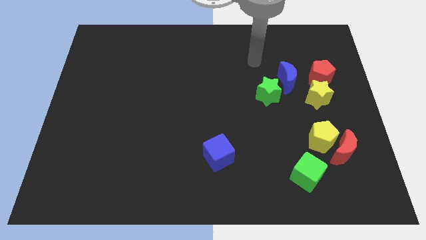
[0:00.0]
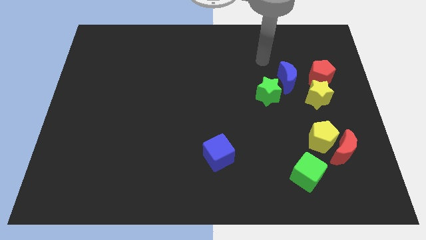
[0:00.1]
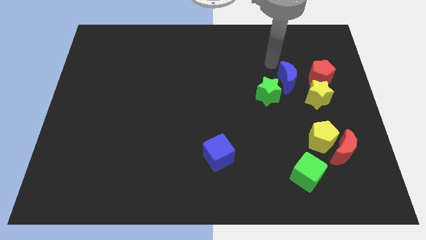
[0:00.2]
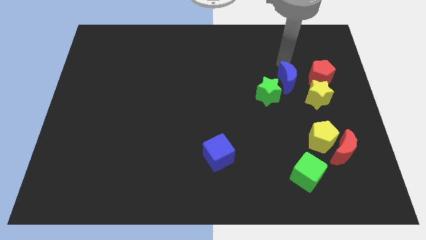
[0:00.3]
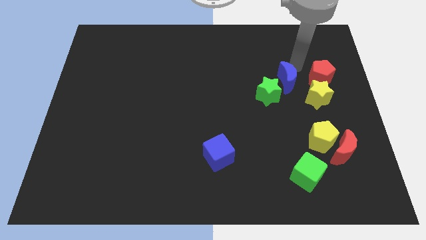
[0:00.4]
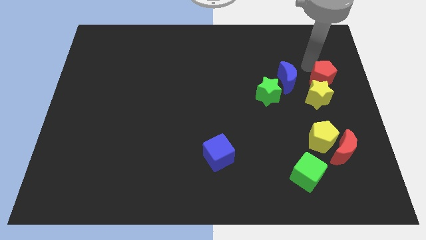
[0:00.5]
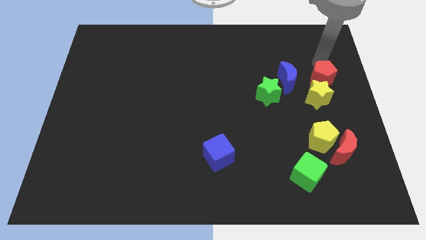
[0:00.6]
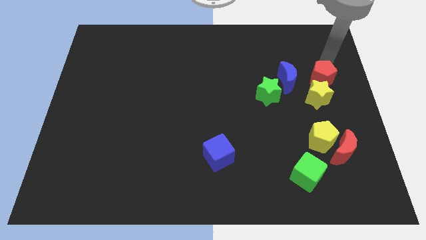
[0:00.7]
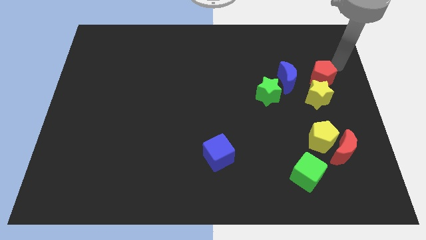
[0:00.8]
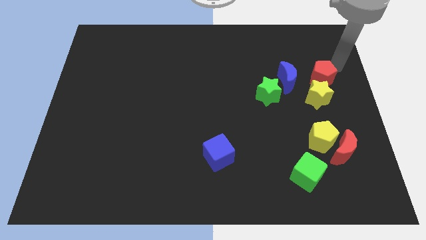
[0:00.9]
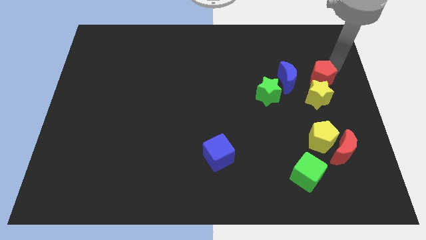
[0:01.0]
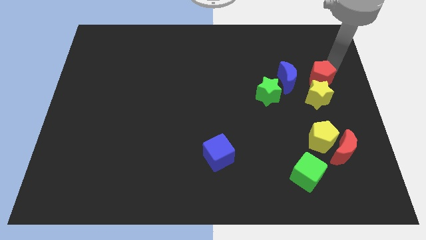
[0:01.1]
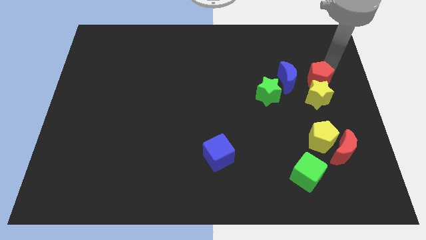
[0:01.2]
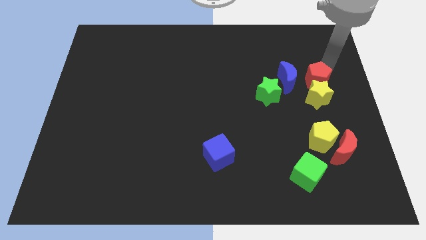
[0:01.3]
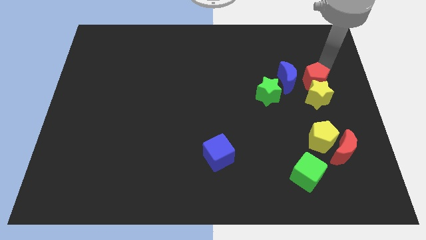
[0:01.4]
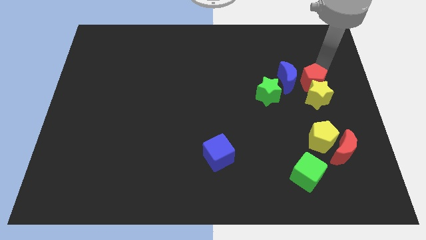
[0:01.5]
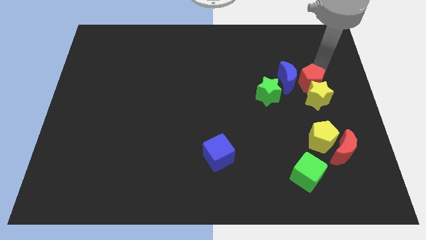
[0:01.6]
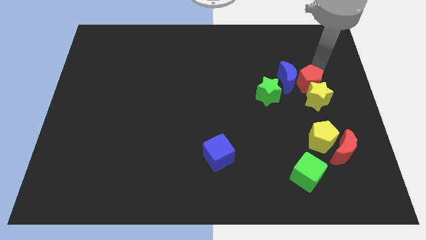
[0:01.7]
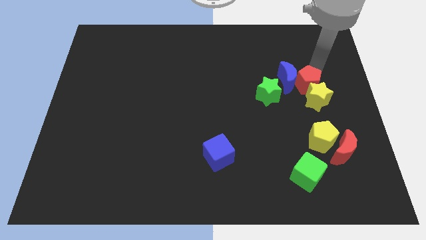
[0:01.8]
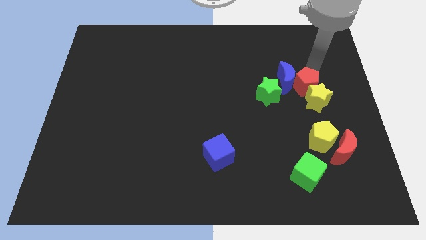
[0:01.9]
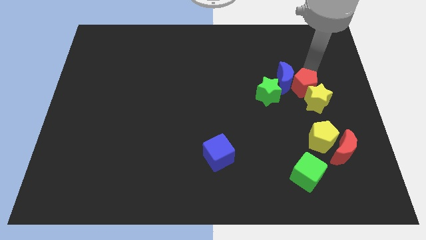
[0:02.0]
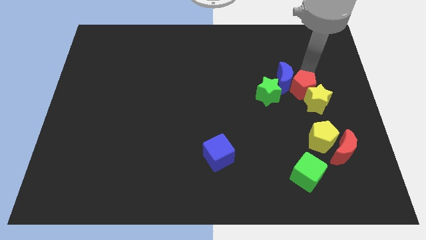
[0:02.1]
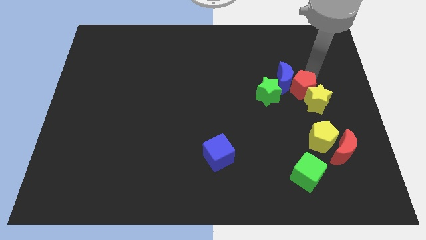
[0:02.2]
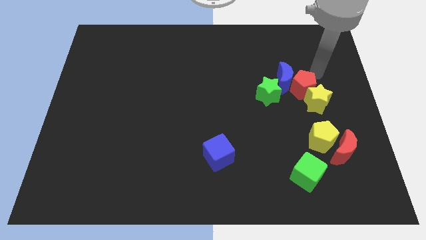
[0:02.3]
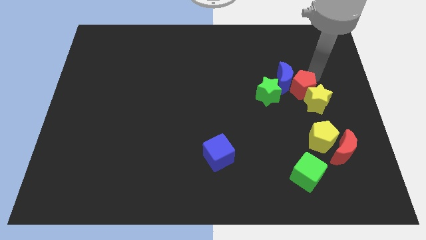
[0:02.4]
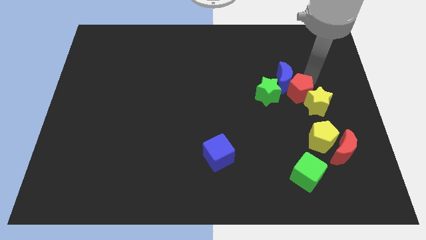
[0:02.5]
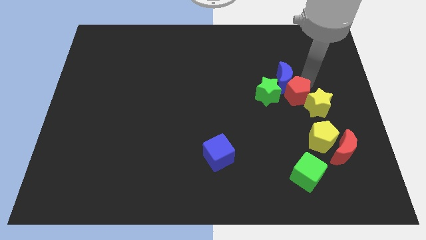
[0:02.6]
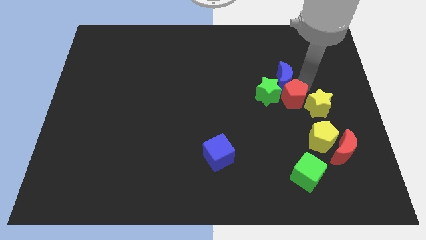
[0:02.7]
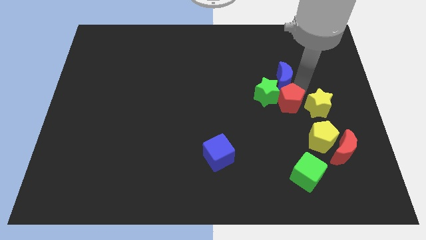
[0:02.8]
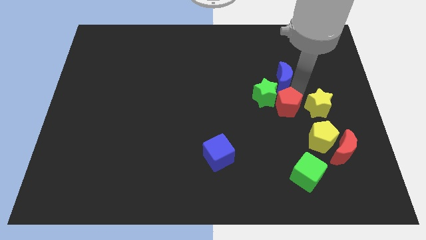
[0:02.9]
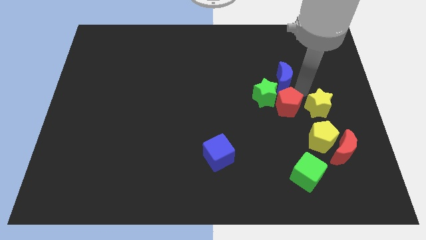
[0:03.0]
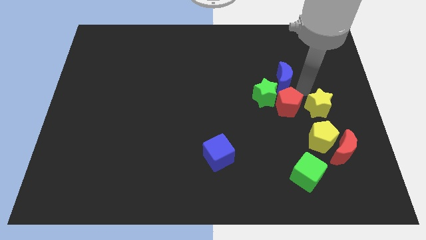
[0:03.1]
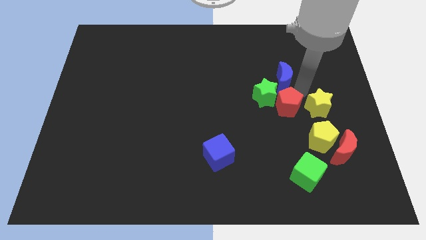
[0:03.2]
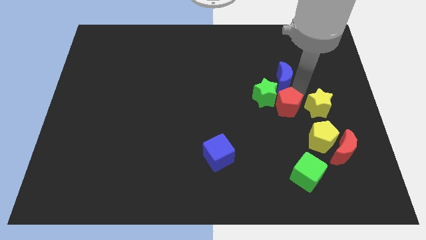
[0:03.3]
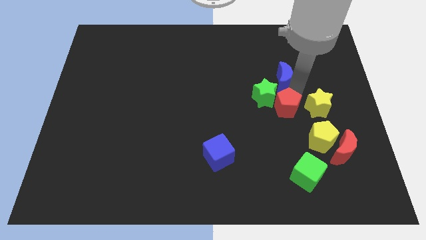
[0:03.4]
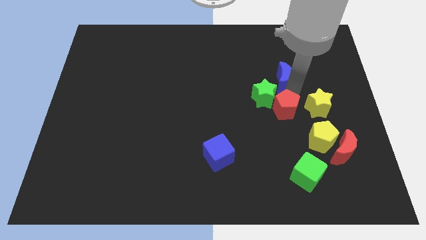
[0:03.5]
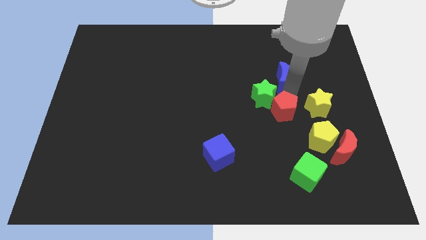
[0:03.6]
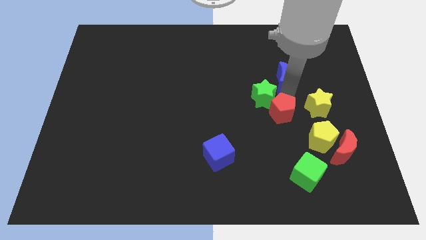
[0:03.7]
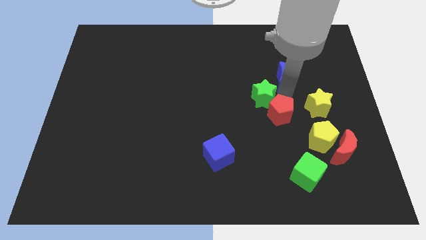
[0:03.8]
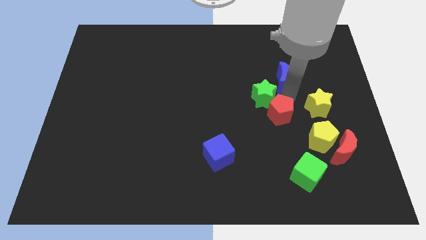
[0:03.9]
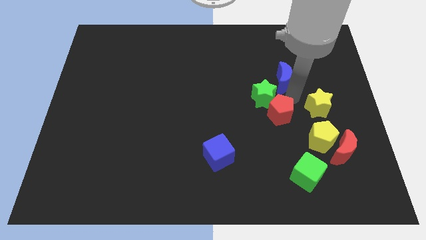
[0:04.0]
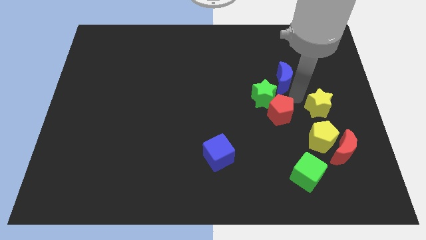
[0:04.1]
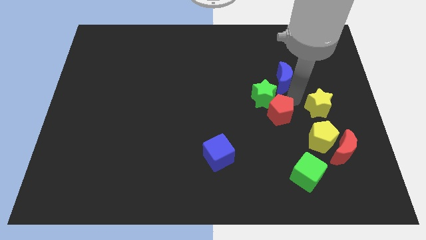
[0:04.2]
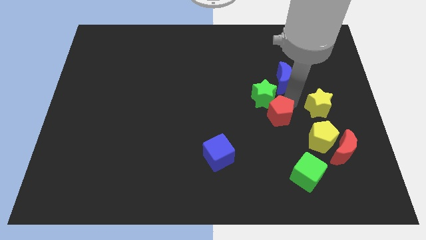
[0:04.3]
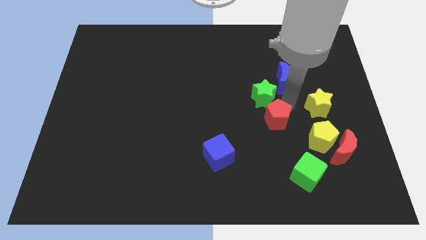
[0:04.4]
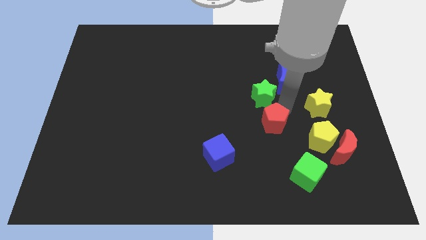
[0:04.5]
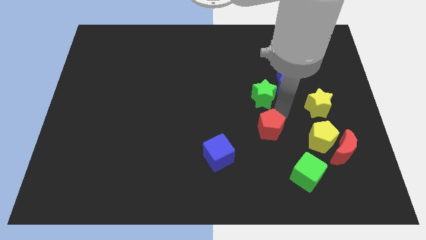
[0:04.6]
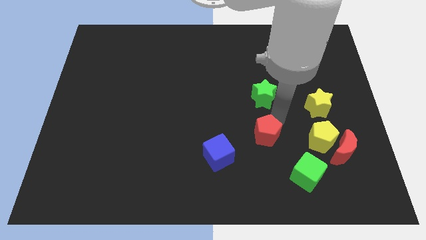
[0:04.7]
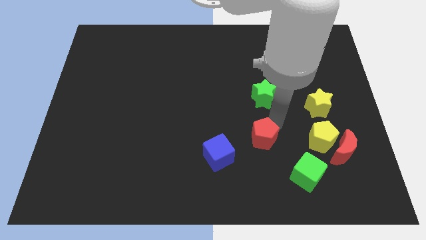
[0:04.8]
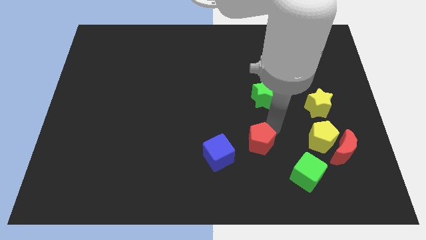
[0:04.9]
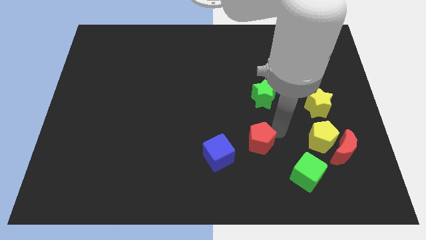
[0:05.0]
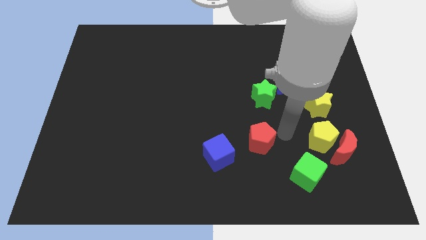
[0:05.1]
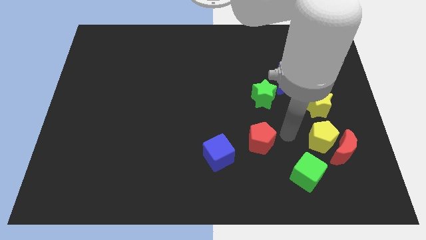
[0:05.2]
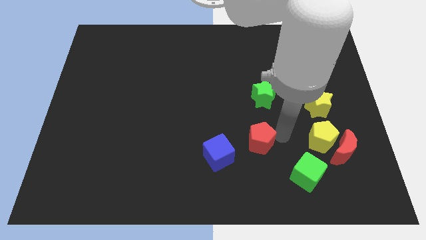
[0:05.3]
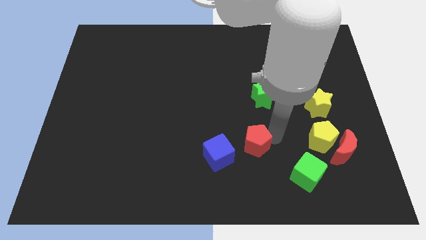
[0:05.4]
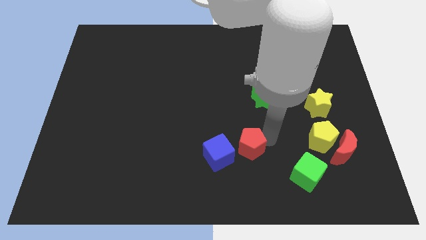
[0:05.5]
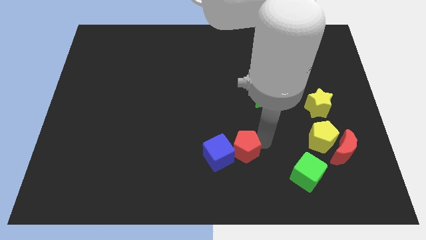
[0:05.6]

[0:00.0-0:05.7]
slide the red pentagon to the blue cube

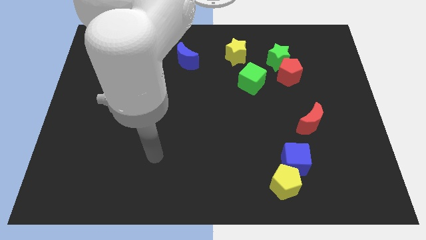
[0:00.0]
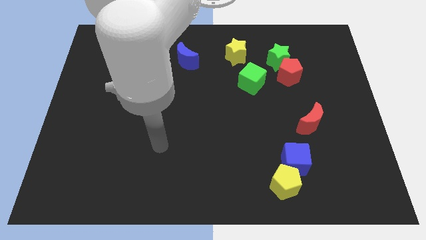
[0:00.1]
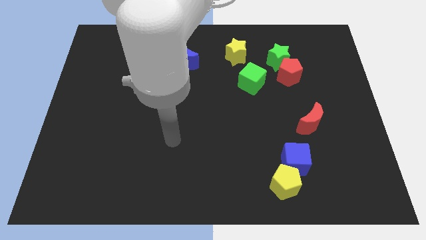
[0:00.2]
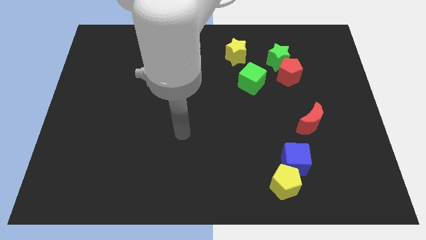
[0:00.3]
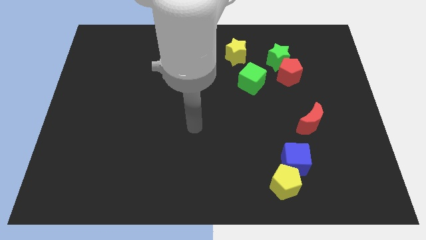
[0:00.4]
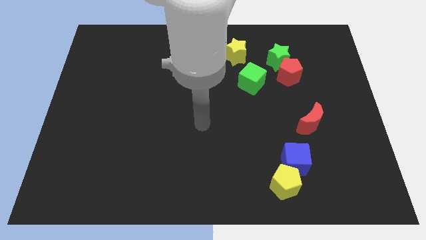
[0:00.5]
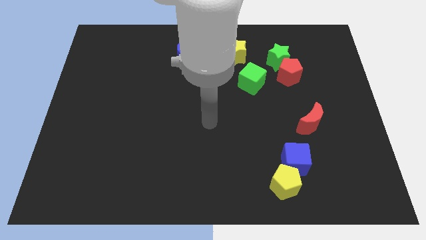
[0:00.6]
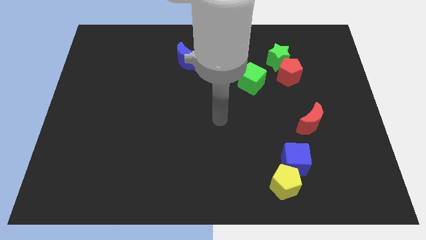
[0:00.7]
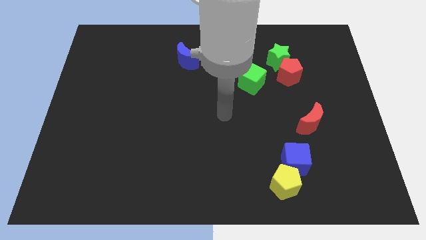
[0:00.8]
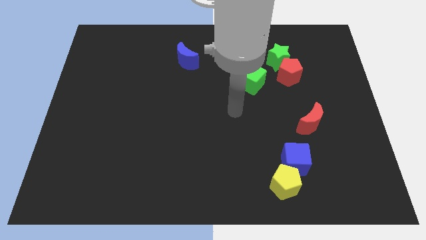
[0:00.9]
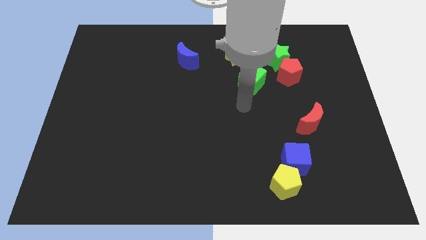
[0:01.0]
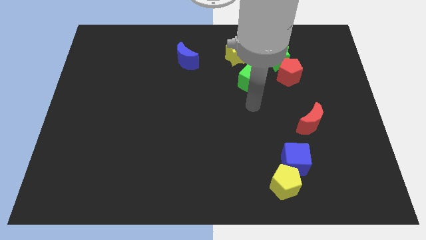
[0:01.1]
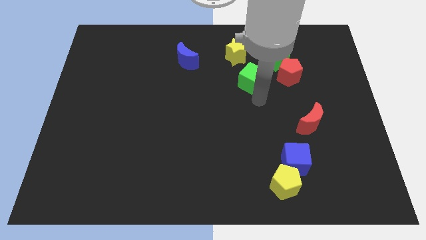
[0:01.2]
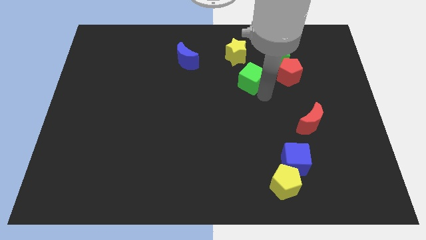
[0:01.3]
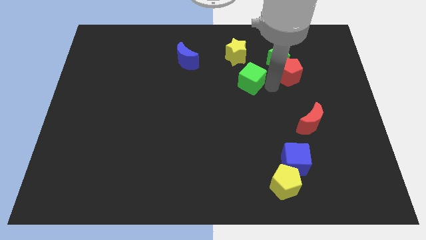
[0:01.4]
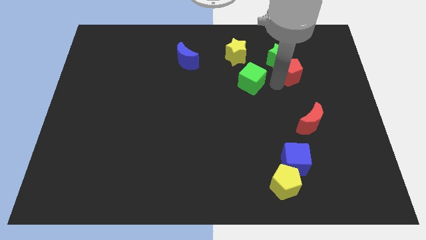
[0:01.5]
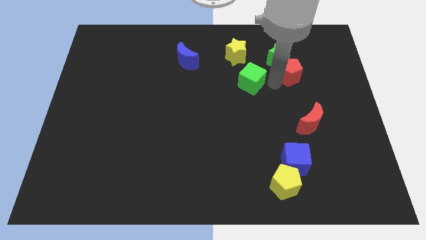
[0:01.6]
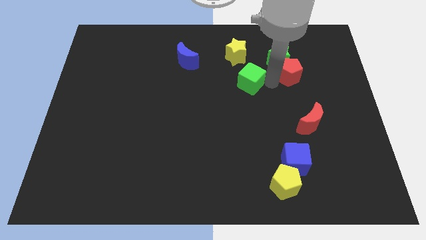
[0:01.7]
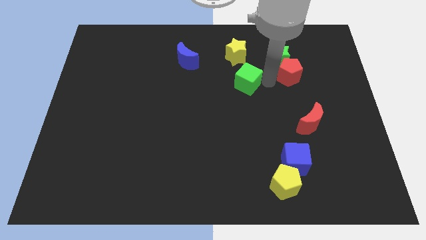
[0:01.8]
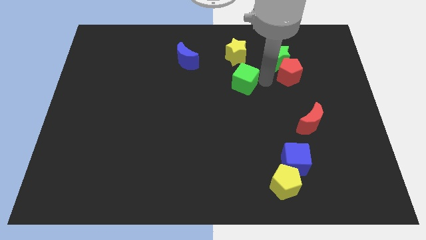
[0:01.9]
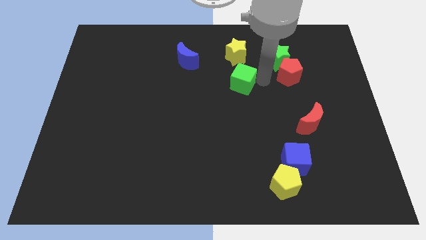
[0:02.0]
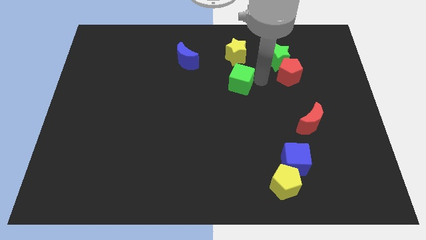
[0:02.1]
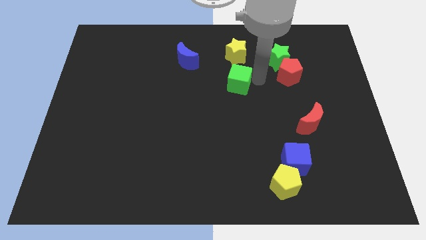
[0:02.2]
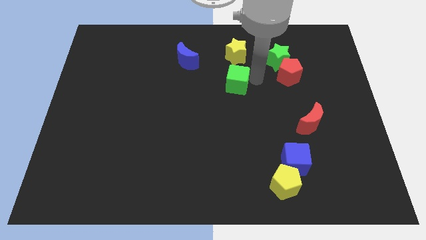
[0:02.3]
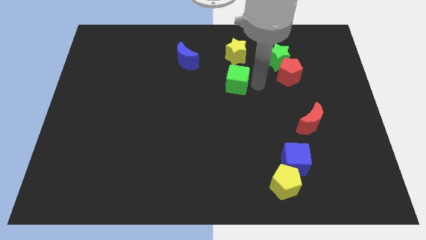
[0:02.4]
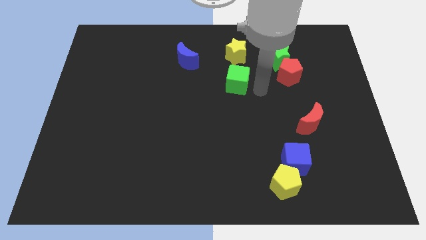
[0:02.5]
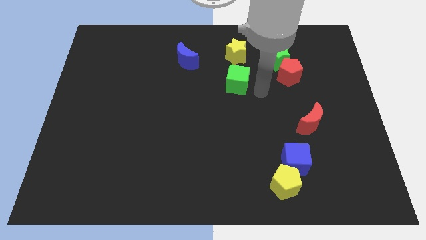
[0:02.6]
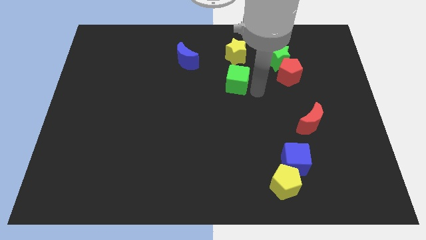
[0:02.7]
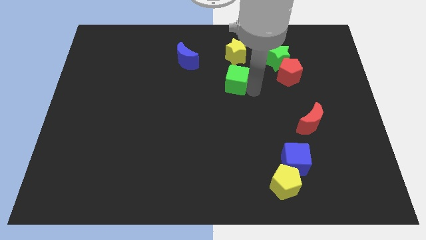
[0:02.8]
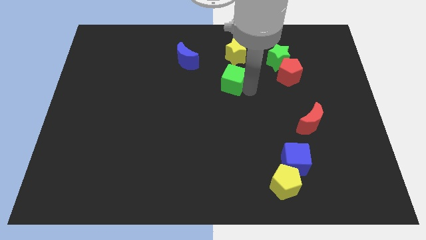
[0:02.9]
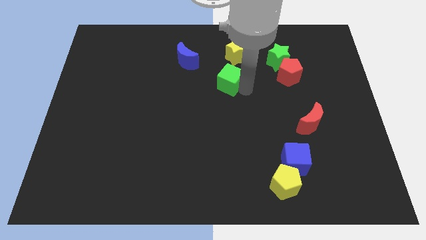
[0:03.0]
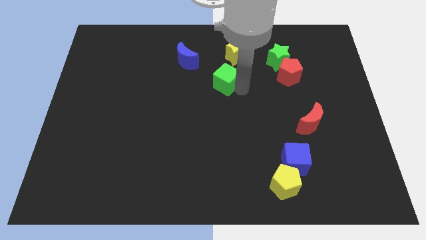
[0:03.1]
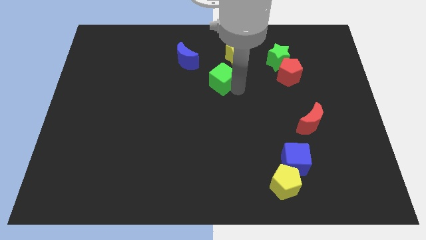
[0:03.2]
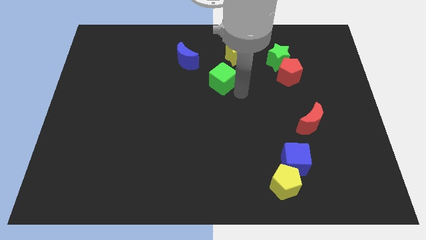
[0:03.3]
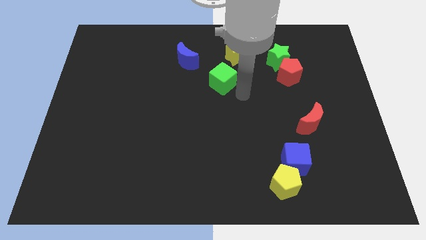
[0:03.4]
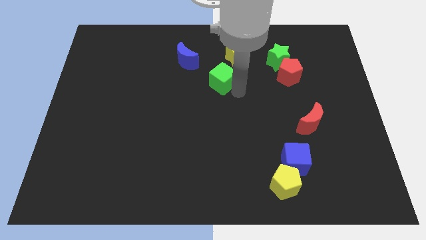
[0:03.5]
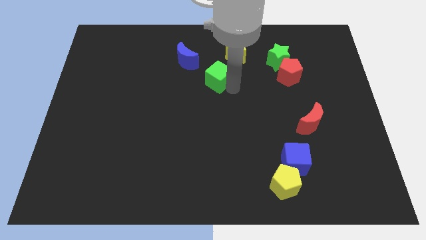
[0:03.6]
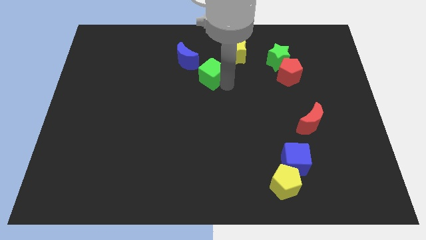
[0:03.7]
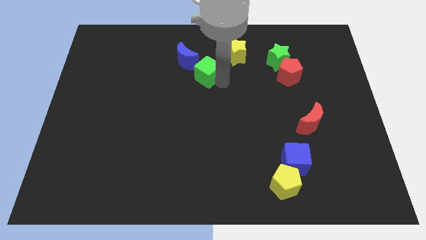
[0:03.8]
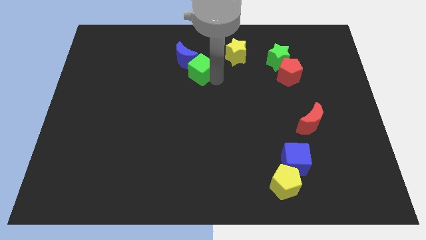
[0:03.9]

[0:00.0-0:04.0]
move the green cube towards the blue moon
